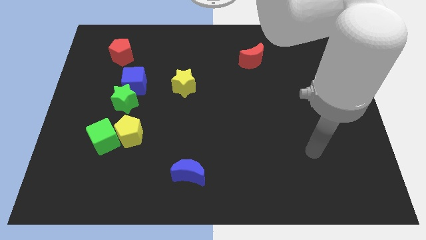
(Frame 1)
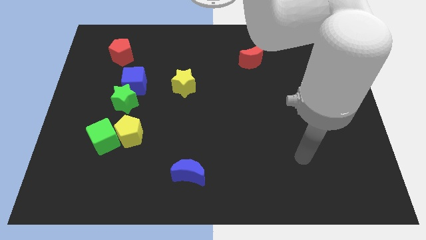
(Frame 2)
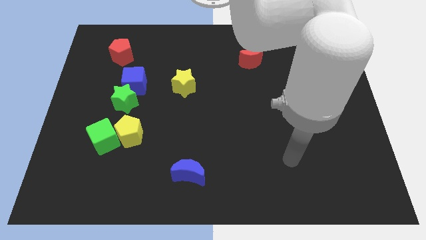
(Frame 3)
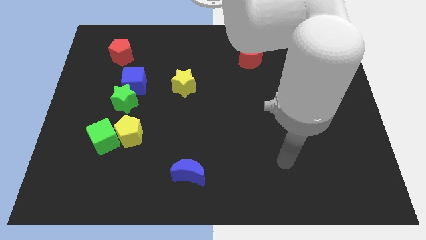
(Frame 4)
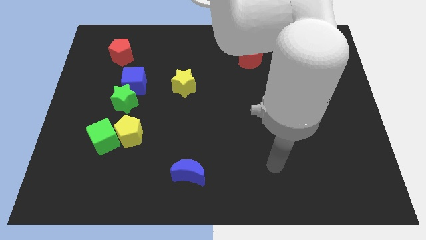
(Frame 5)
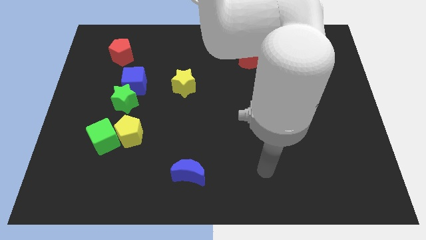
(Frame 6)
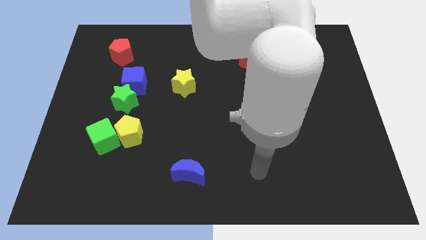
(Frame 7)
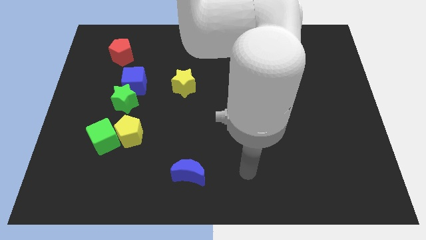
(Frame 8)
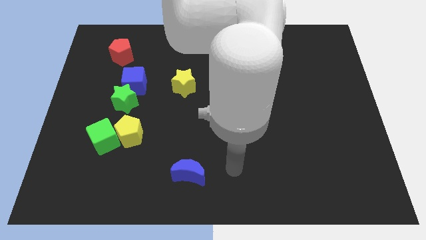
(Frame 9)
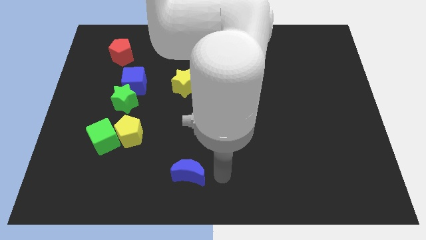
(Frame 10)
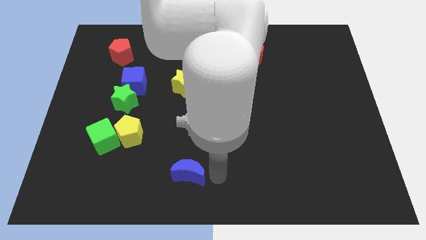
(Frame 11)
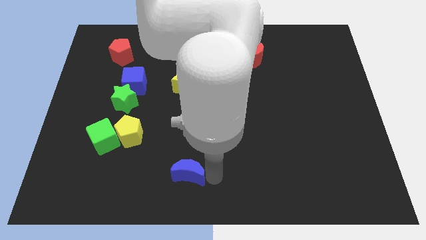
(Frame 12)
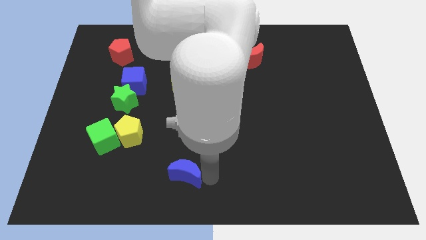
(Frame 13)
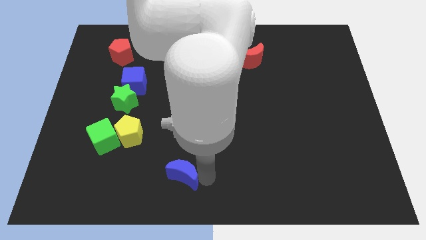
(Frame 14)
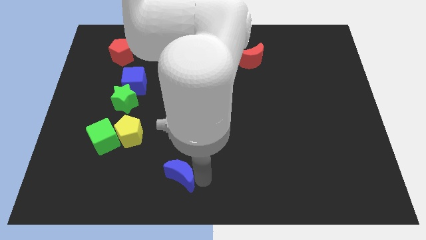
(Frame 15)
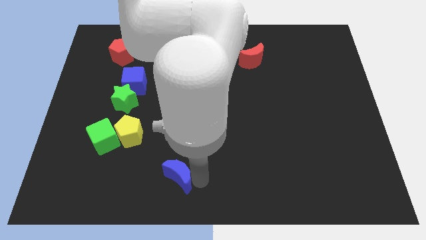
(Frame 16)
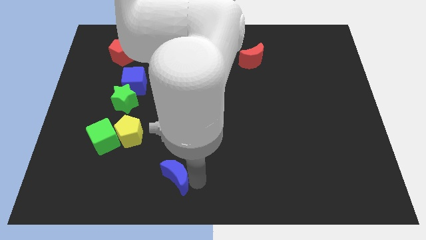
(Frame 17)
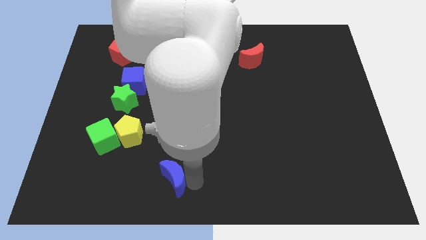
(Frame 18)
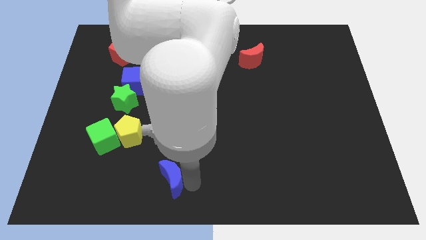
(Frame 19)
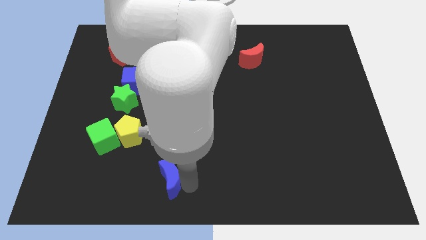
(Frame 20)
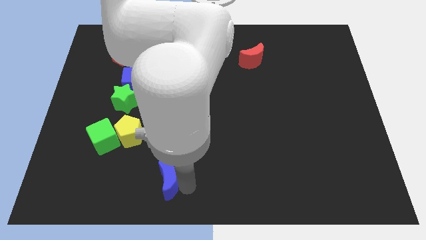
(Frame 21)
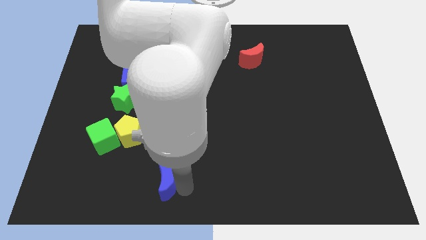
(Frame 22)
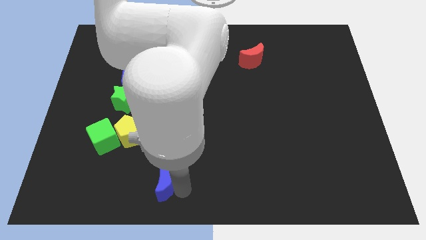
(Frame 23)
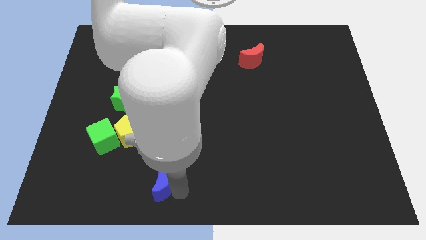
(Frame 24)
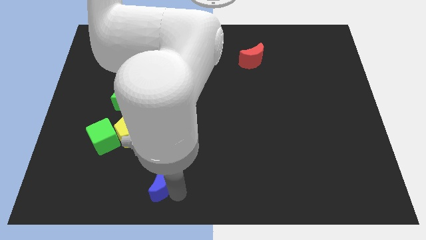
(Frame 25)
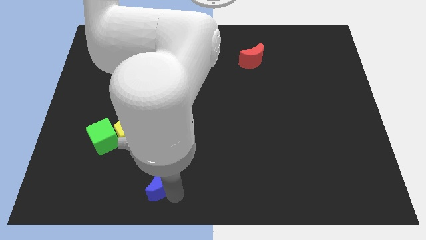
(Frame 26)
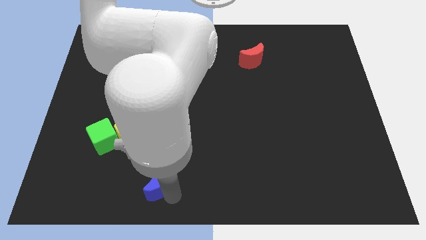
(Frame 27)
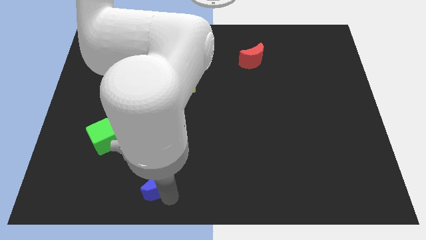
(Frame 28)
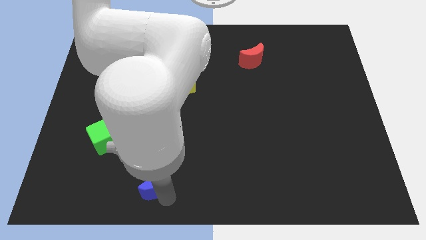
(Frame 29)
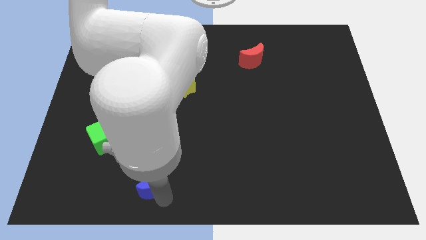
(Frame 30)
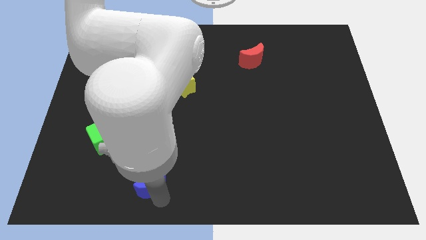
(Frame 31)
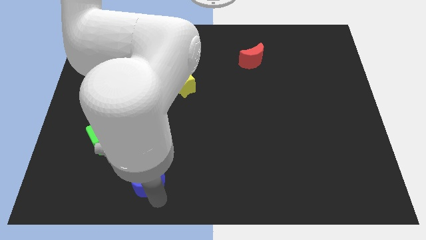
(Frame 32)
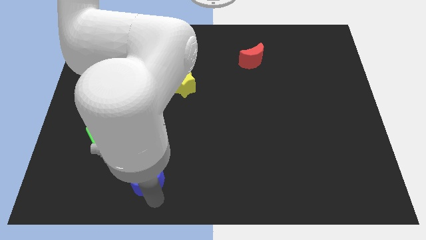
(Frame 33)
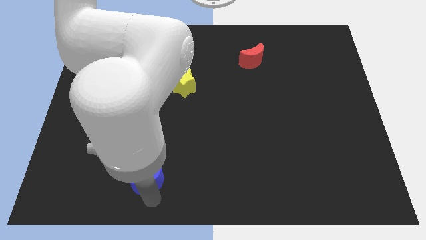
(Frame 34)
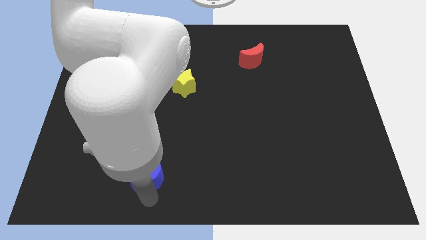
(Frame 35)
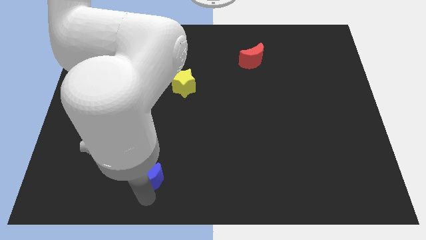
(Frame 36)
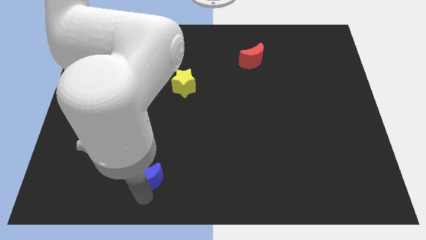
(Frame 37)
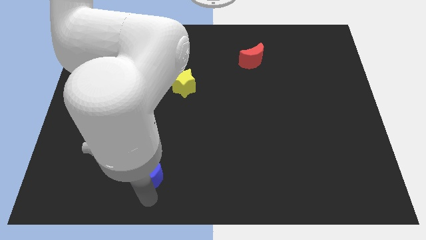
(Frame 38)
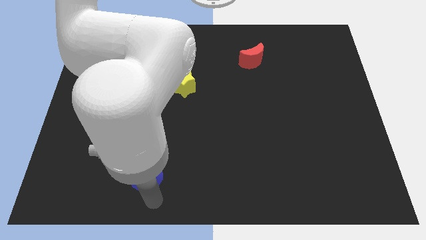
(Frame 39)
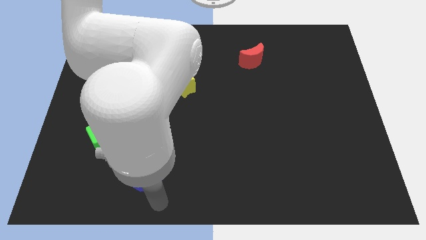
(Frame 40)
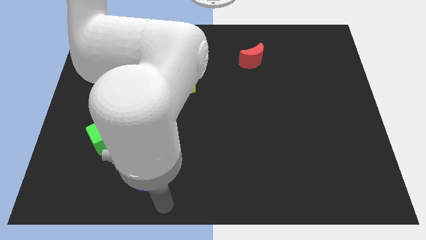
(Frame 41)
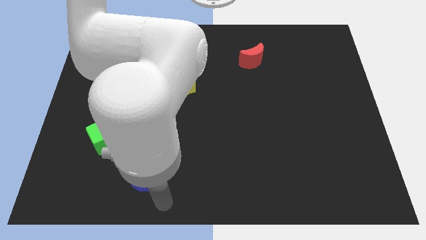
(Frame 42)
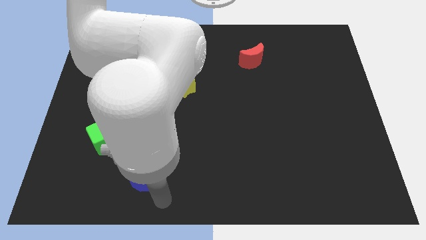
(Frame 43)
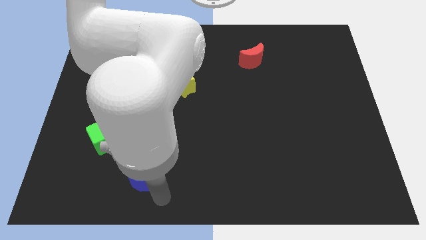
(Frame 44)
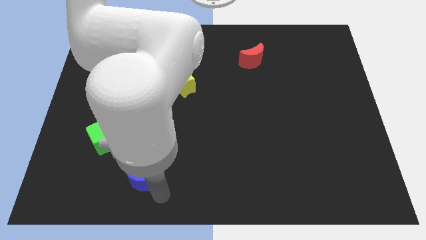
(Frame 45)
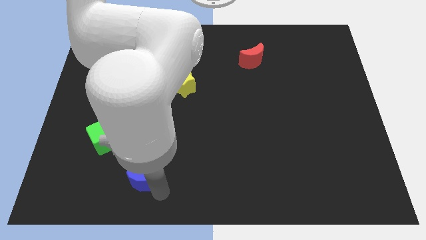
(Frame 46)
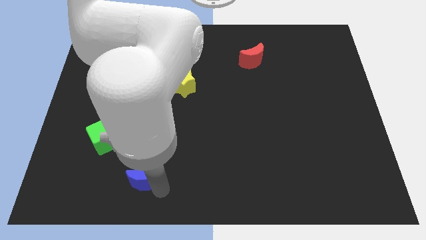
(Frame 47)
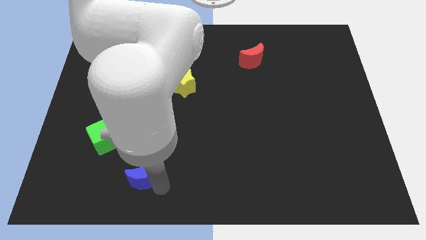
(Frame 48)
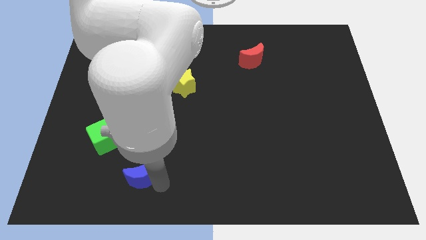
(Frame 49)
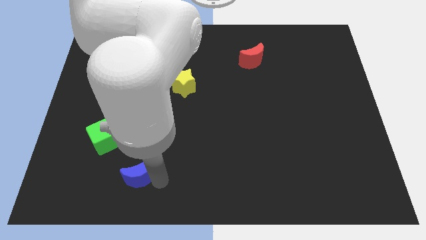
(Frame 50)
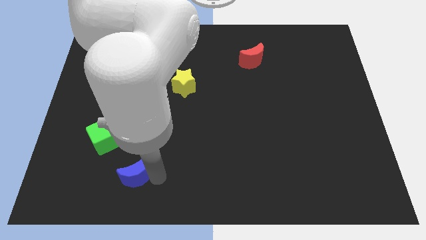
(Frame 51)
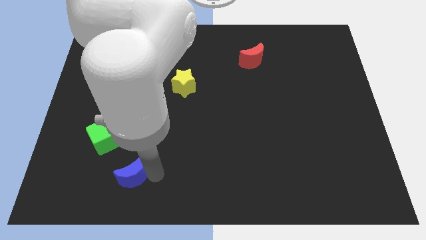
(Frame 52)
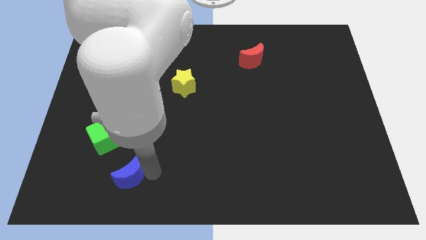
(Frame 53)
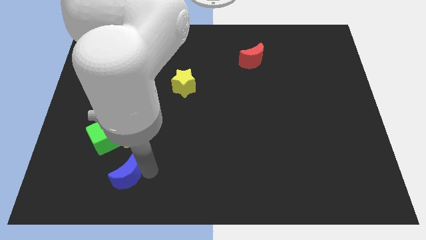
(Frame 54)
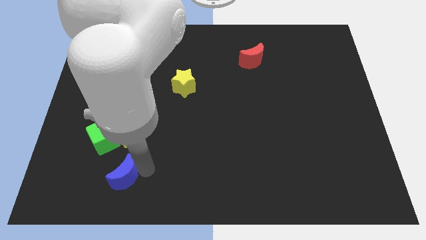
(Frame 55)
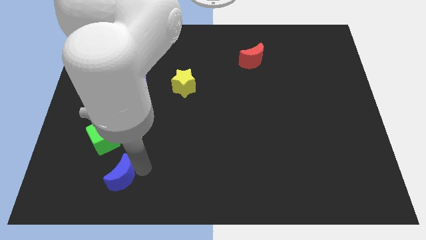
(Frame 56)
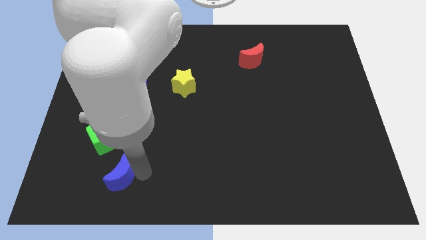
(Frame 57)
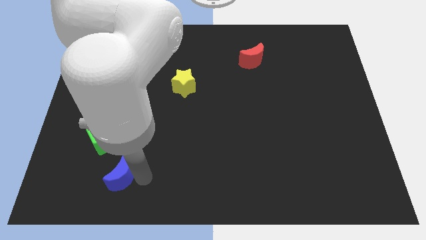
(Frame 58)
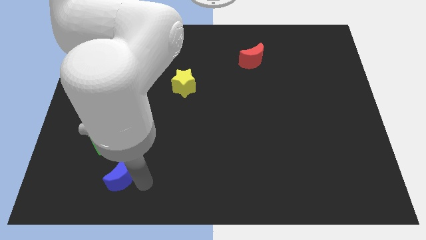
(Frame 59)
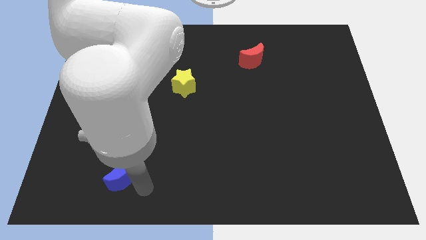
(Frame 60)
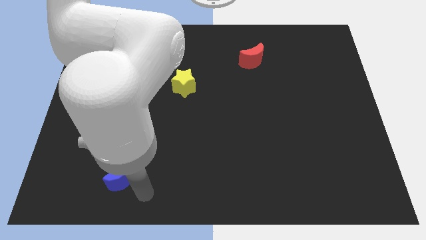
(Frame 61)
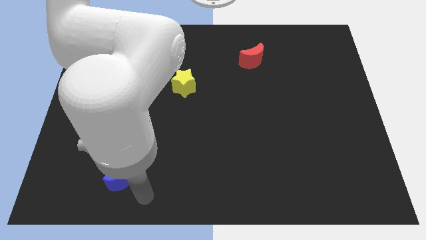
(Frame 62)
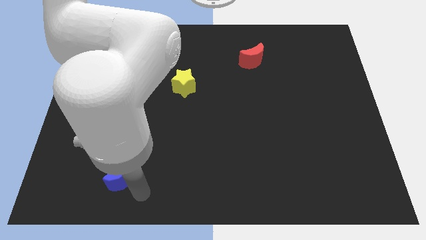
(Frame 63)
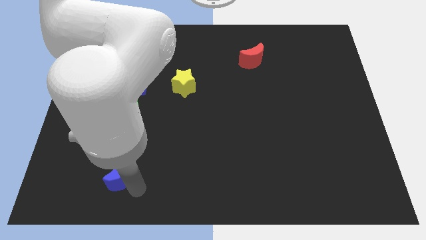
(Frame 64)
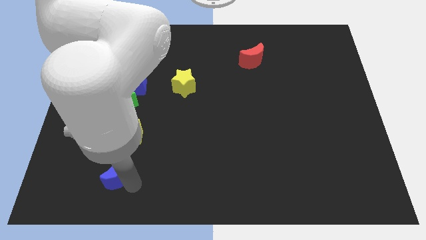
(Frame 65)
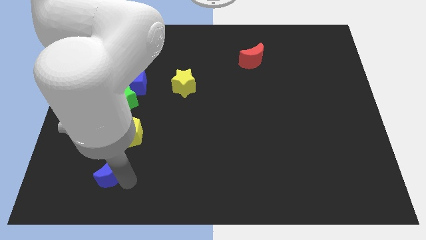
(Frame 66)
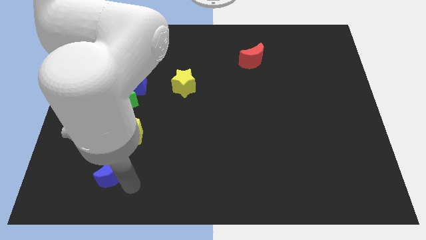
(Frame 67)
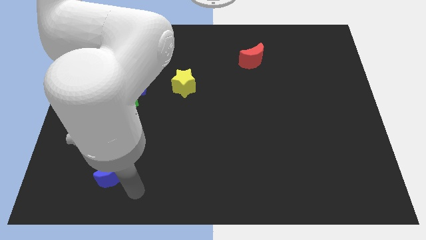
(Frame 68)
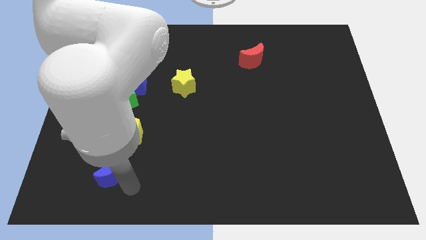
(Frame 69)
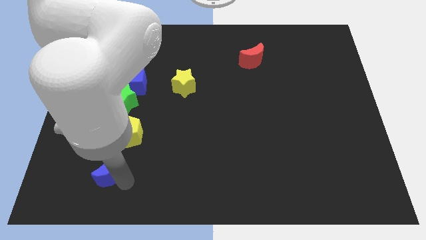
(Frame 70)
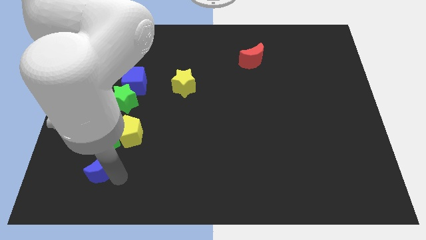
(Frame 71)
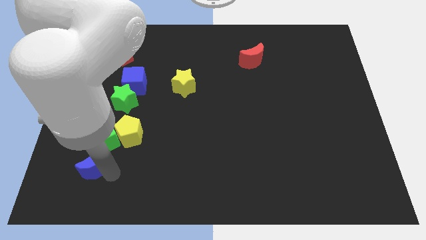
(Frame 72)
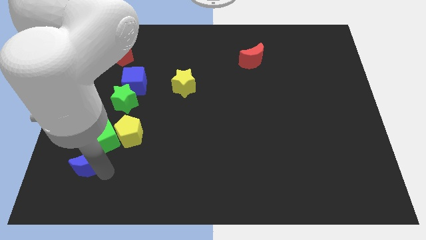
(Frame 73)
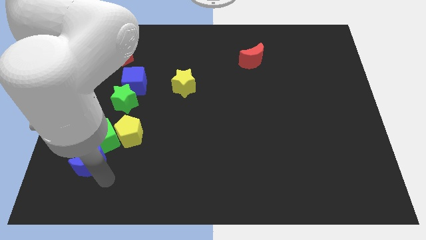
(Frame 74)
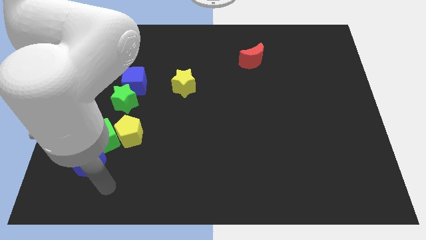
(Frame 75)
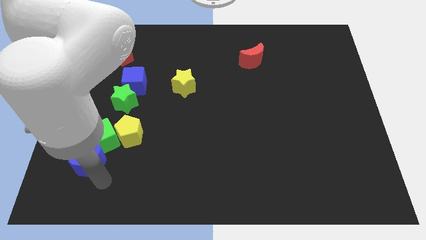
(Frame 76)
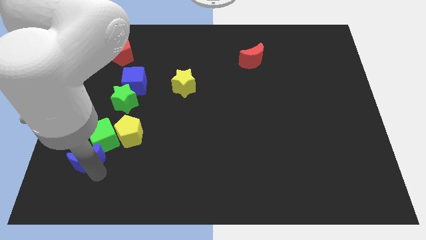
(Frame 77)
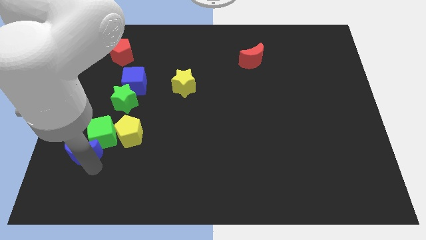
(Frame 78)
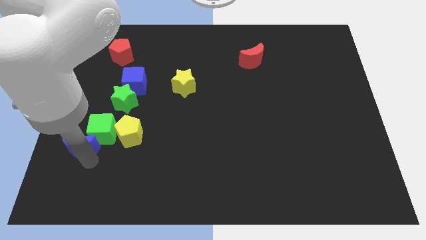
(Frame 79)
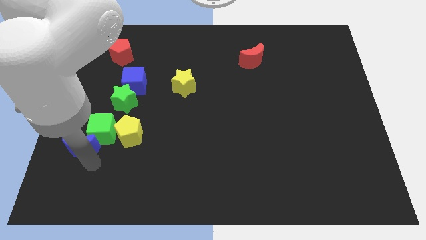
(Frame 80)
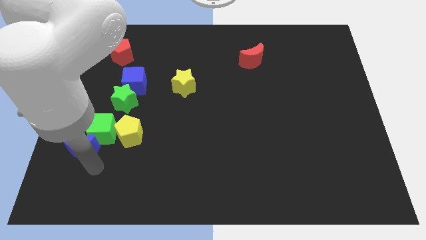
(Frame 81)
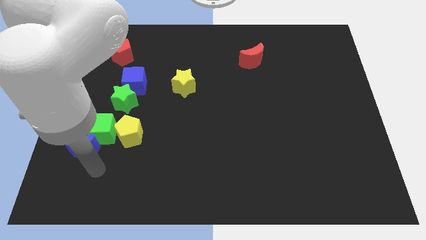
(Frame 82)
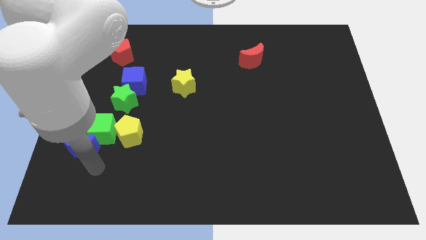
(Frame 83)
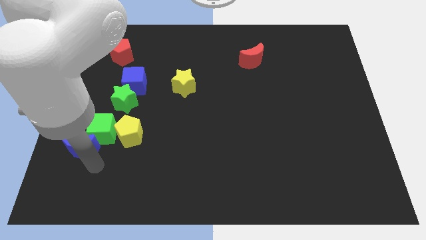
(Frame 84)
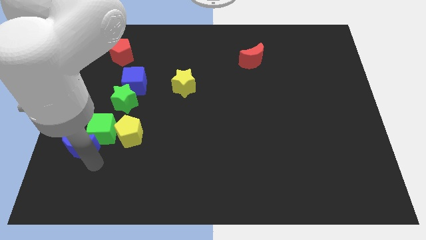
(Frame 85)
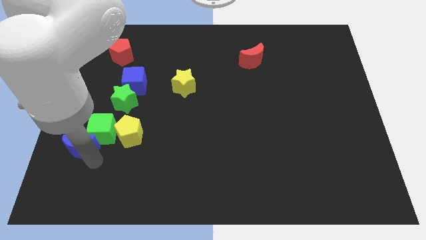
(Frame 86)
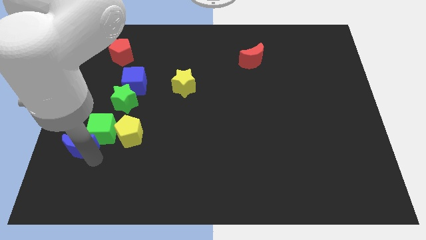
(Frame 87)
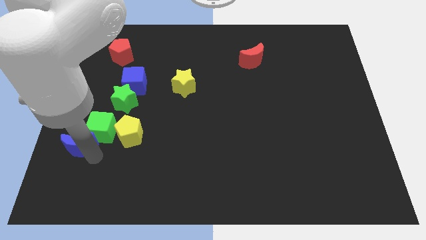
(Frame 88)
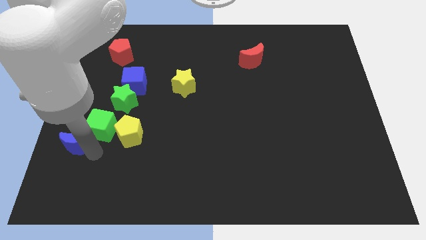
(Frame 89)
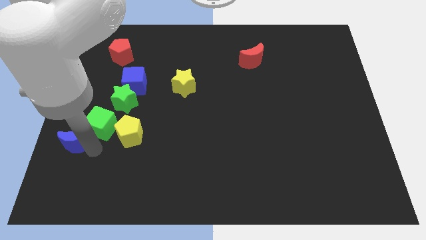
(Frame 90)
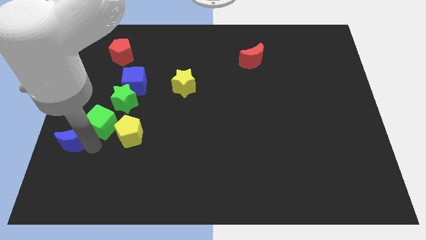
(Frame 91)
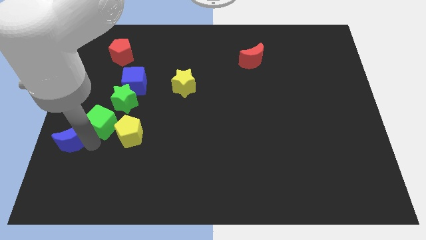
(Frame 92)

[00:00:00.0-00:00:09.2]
slide the blue moon to the left side
